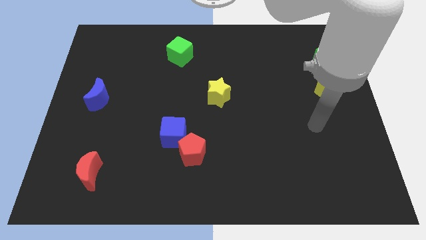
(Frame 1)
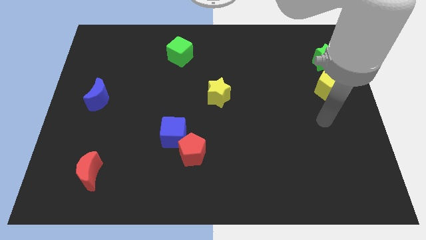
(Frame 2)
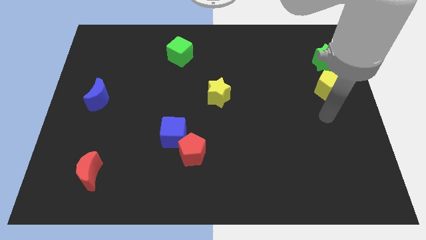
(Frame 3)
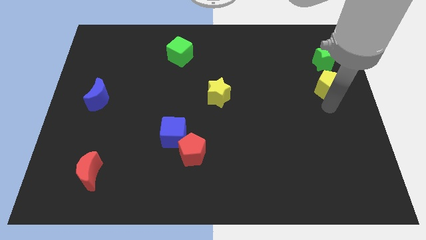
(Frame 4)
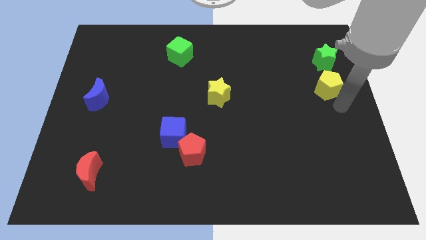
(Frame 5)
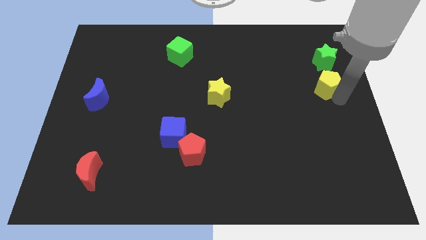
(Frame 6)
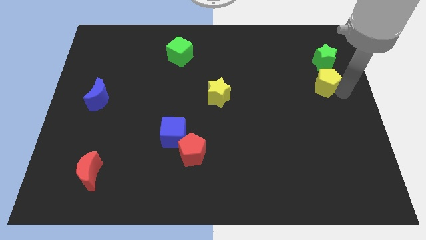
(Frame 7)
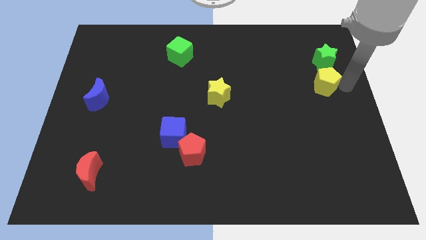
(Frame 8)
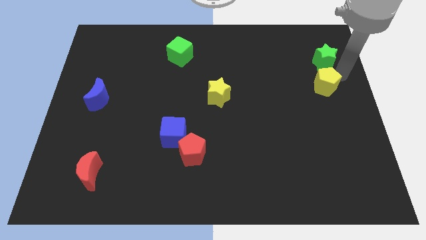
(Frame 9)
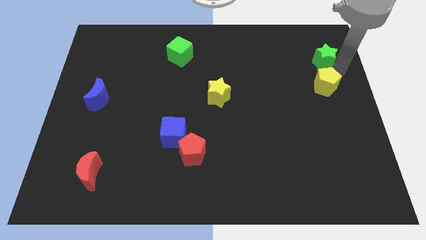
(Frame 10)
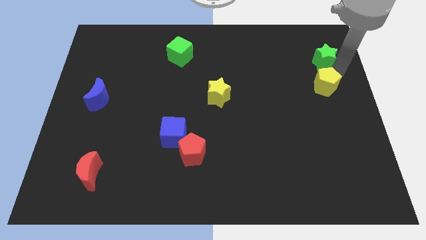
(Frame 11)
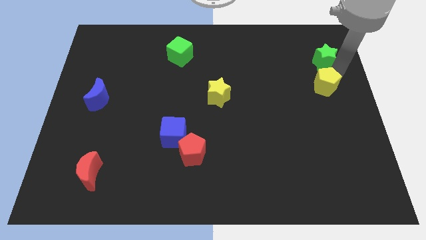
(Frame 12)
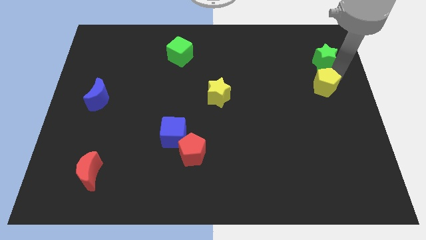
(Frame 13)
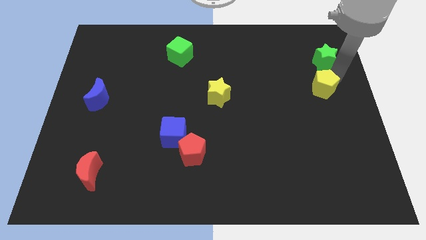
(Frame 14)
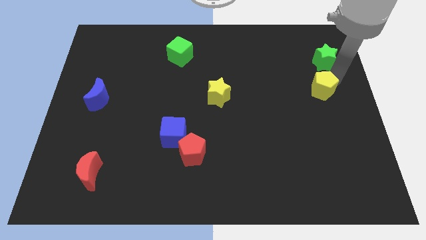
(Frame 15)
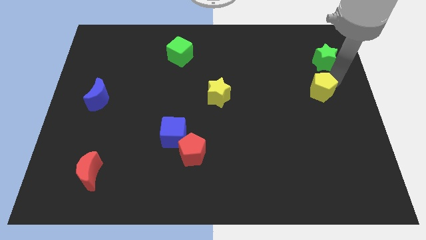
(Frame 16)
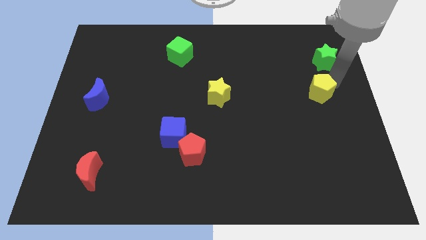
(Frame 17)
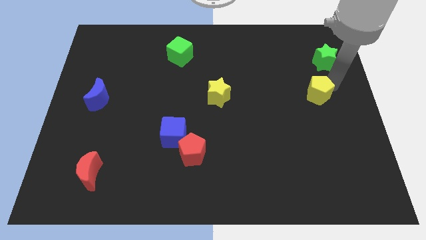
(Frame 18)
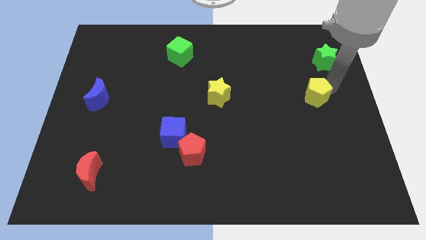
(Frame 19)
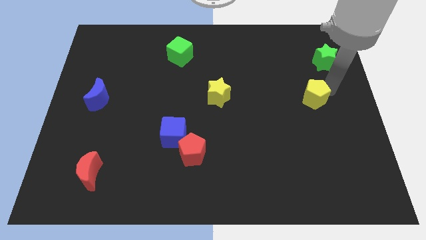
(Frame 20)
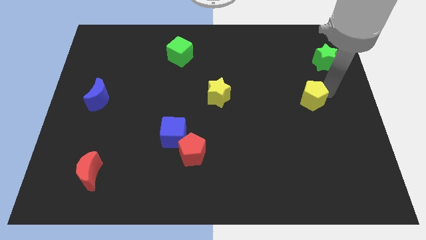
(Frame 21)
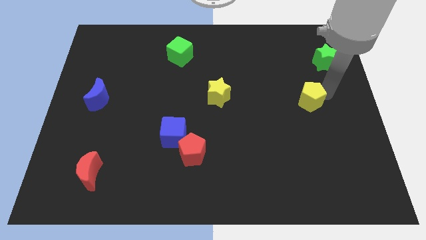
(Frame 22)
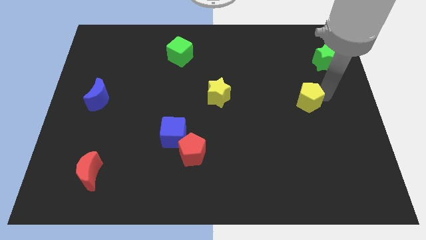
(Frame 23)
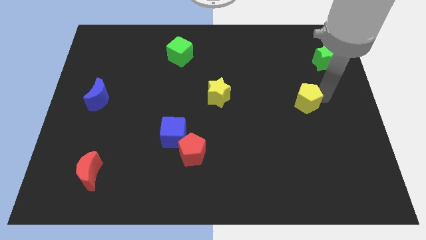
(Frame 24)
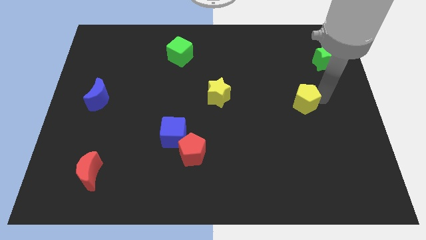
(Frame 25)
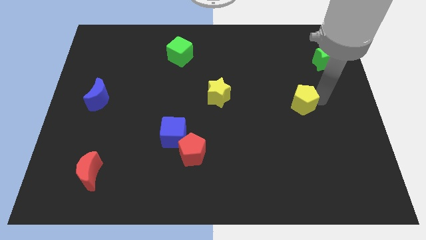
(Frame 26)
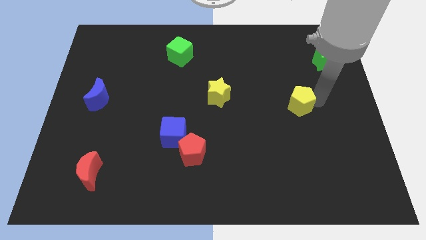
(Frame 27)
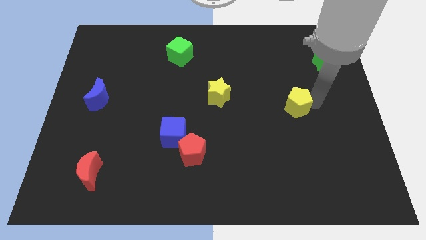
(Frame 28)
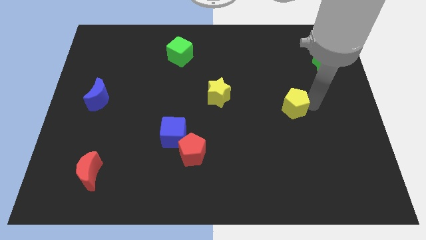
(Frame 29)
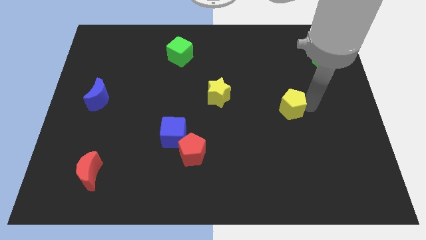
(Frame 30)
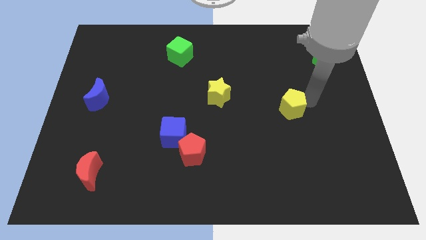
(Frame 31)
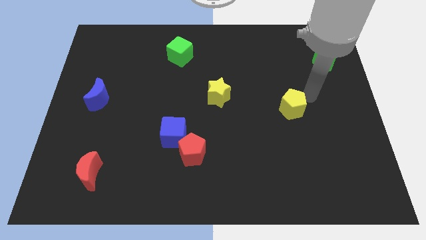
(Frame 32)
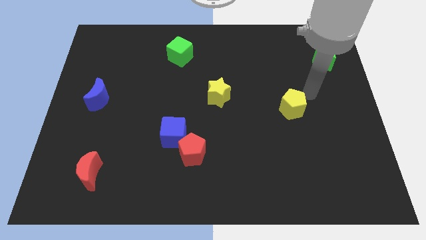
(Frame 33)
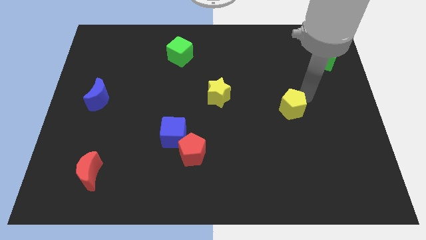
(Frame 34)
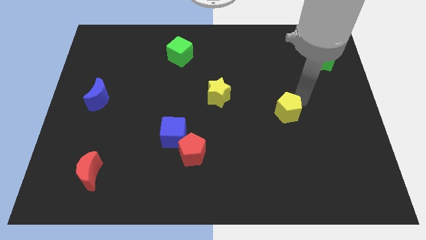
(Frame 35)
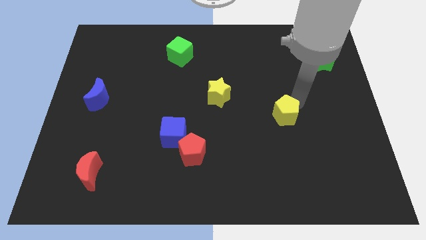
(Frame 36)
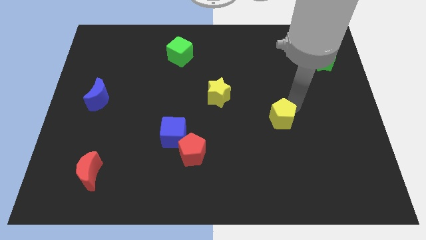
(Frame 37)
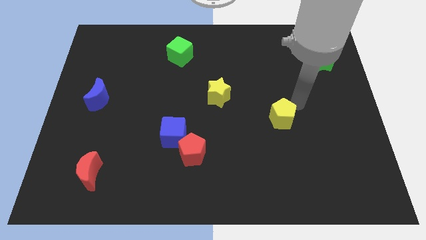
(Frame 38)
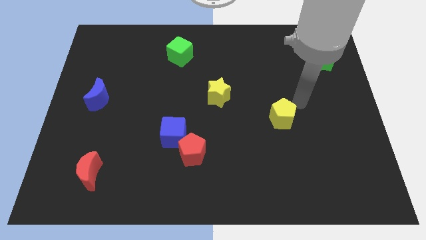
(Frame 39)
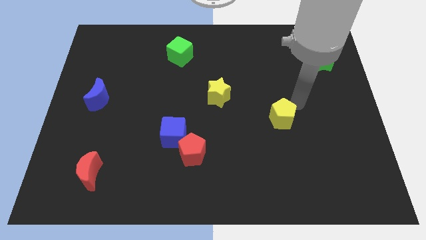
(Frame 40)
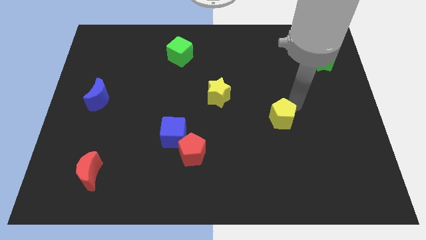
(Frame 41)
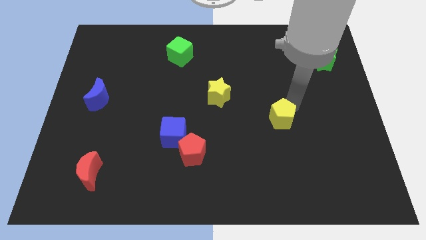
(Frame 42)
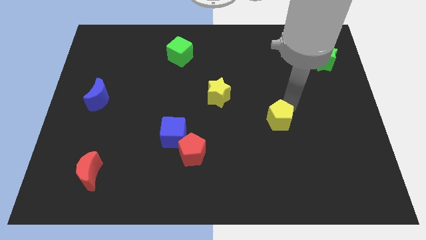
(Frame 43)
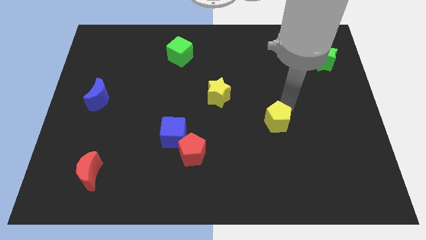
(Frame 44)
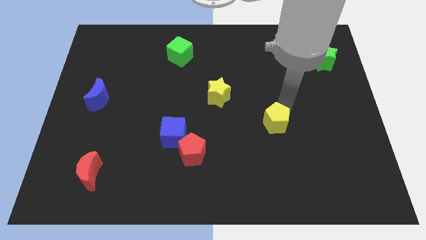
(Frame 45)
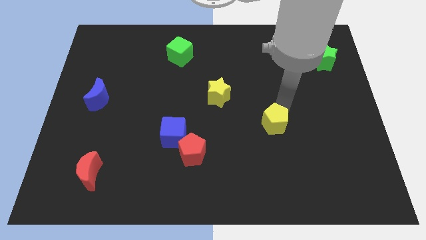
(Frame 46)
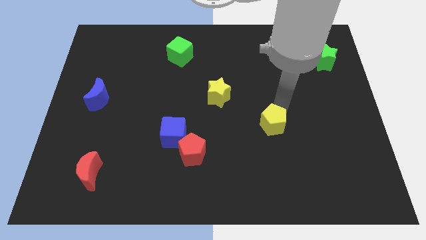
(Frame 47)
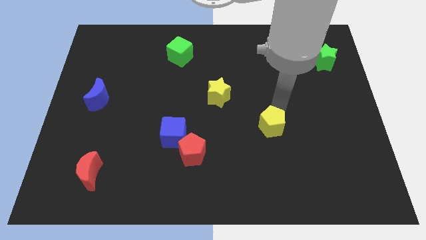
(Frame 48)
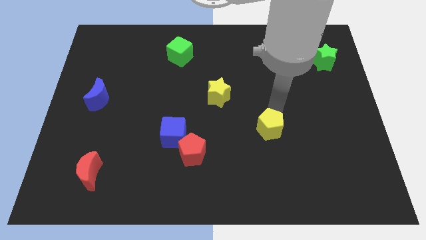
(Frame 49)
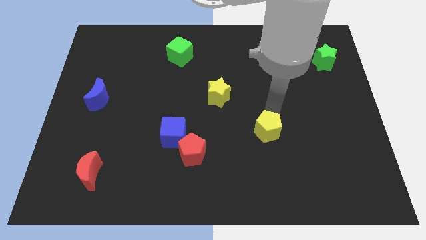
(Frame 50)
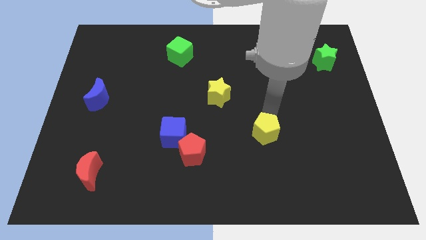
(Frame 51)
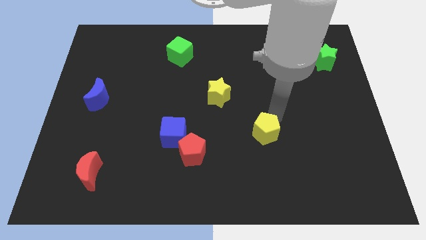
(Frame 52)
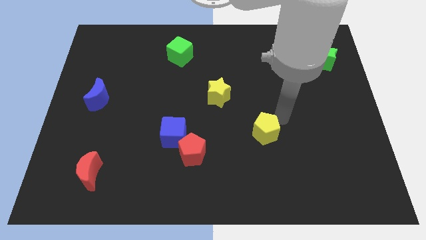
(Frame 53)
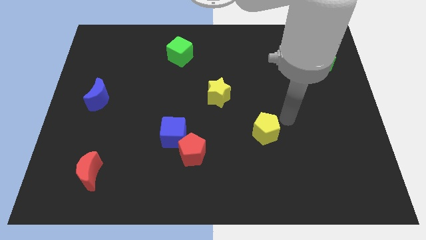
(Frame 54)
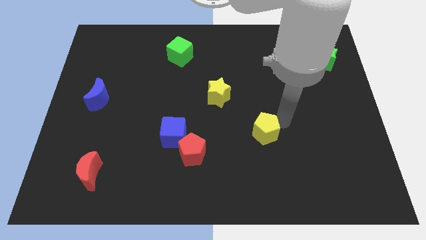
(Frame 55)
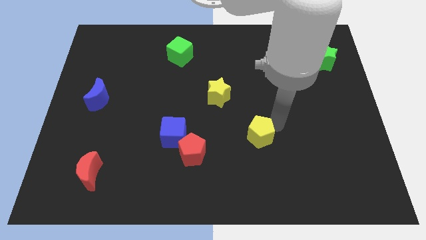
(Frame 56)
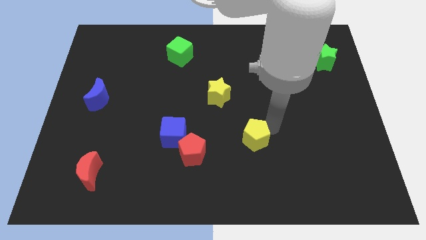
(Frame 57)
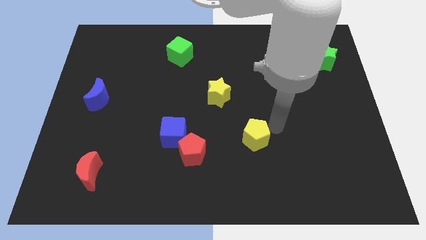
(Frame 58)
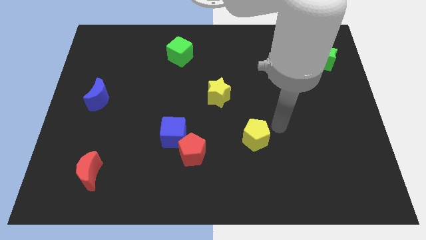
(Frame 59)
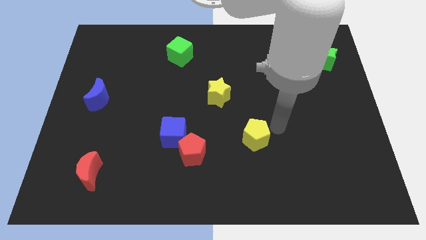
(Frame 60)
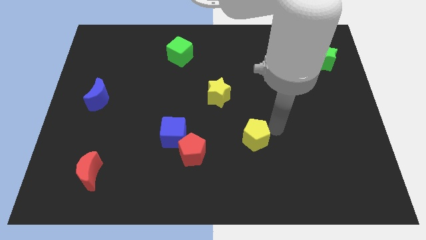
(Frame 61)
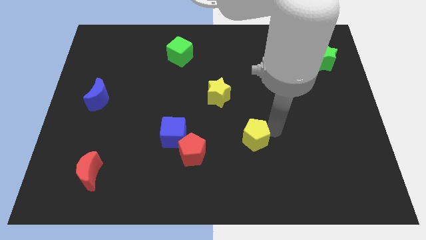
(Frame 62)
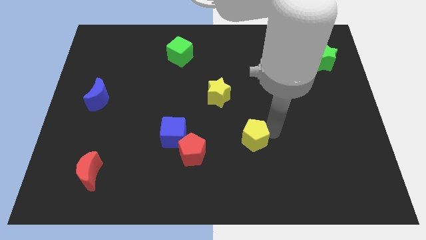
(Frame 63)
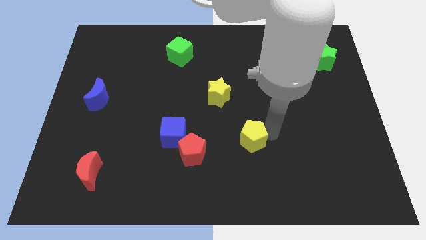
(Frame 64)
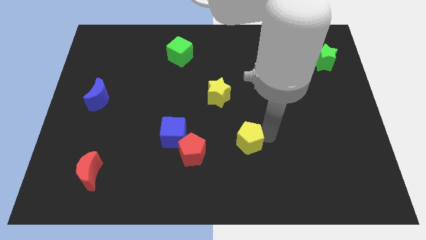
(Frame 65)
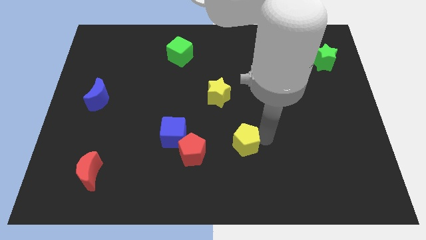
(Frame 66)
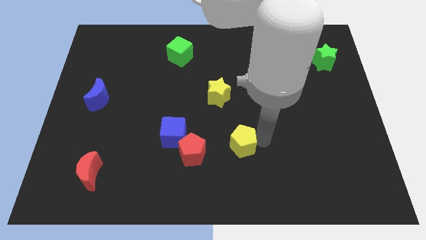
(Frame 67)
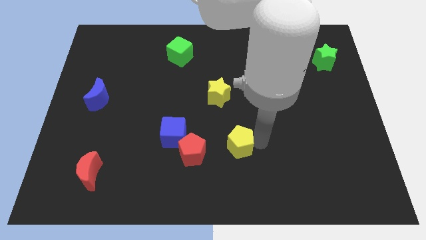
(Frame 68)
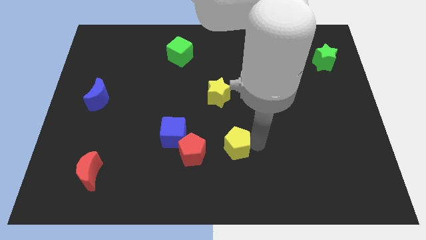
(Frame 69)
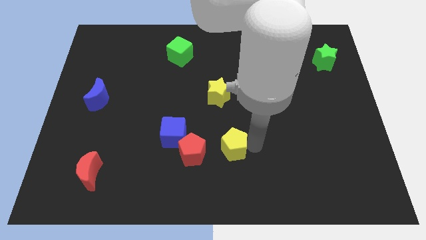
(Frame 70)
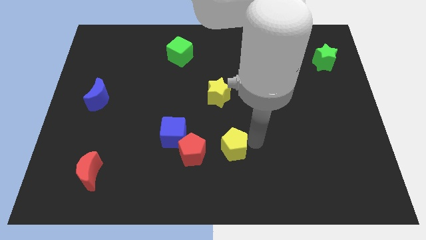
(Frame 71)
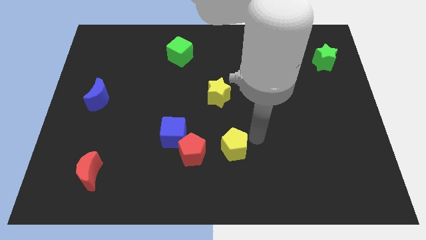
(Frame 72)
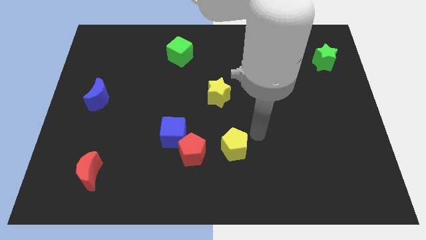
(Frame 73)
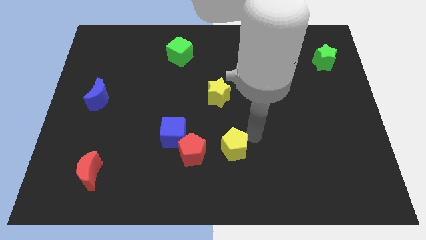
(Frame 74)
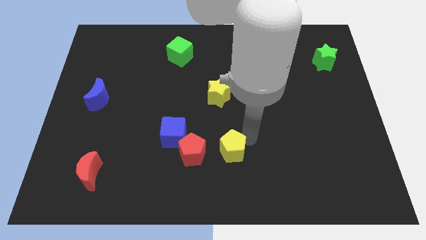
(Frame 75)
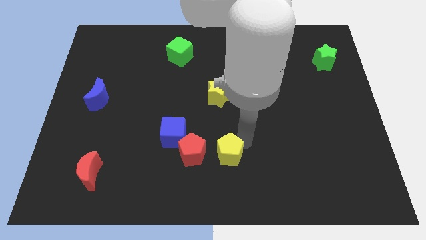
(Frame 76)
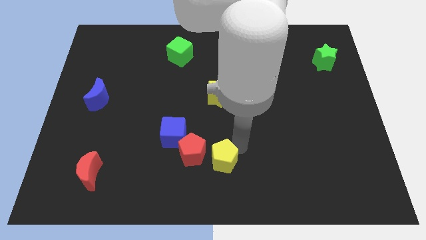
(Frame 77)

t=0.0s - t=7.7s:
slide the yellow pentagon to the bottom right side of the blue cube
